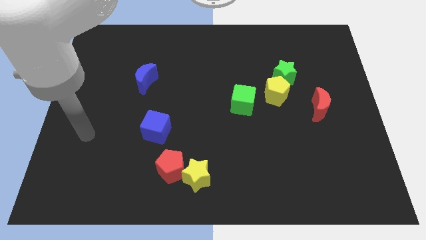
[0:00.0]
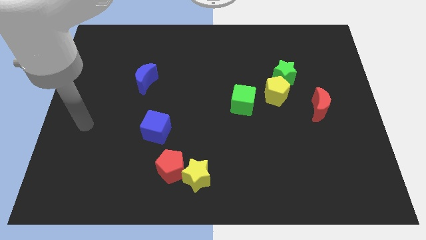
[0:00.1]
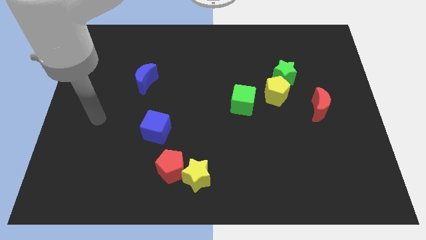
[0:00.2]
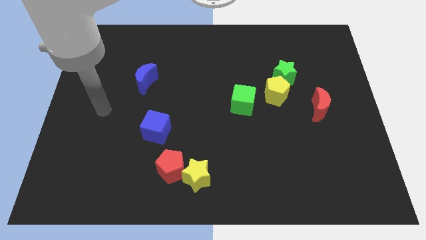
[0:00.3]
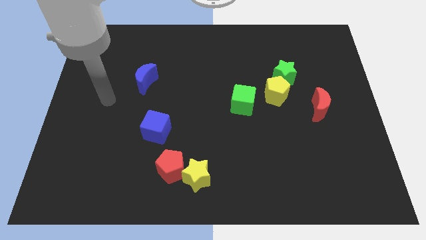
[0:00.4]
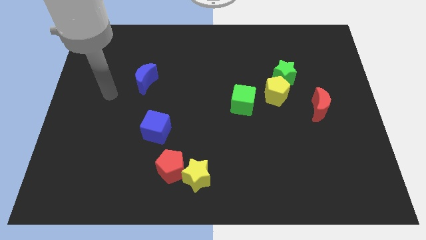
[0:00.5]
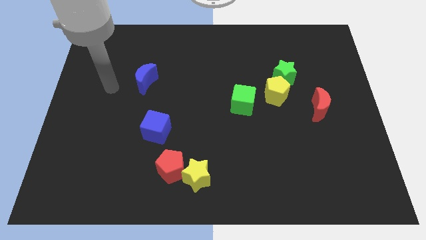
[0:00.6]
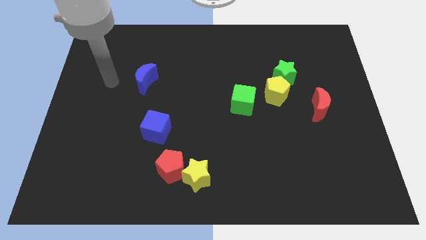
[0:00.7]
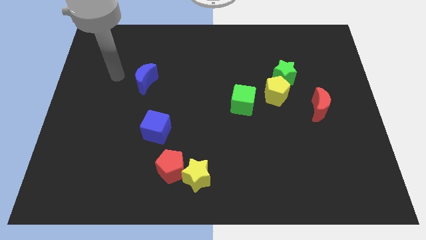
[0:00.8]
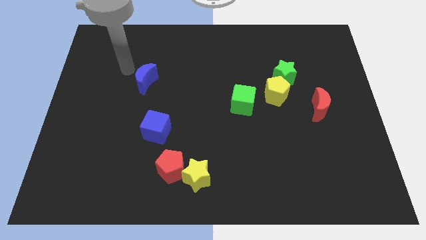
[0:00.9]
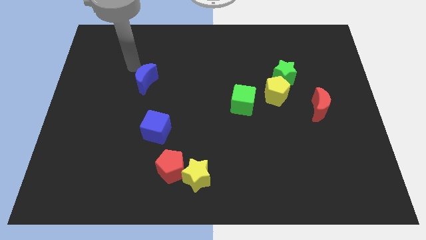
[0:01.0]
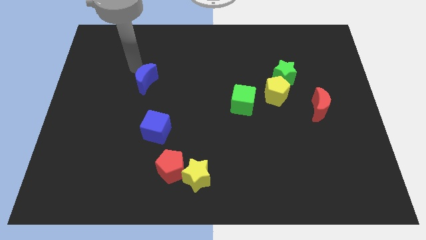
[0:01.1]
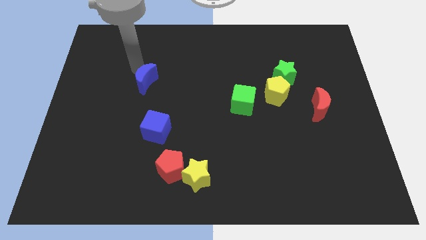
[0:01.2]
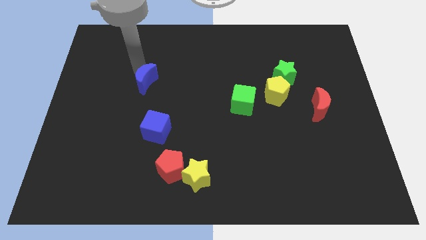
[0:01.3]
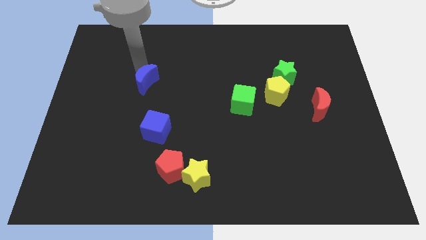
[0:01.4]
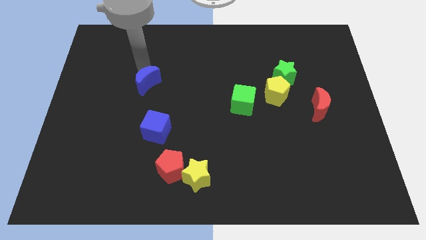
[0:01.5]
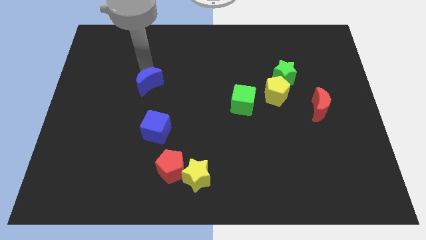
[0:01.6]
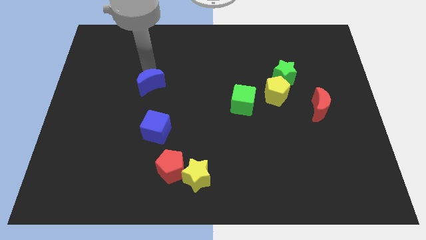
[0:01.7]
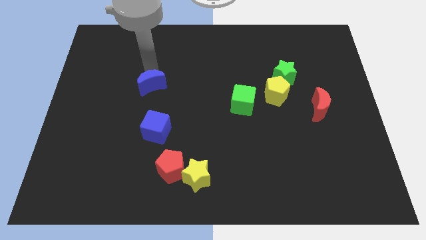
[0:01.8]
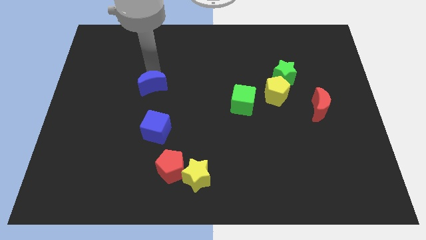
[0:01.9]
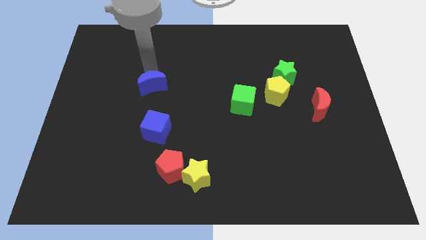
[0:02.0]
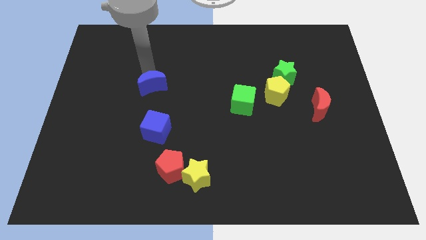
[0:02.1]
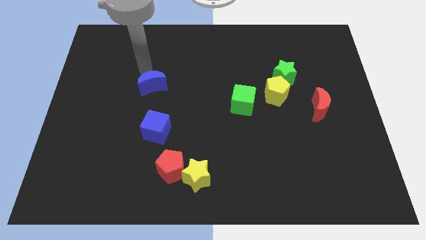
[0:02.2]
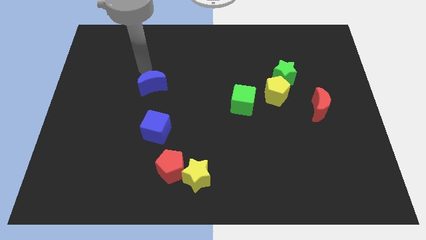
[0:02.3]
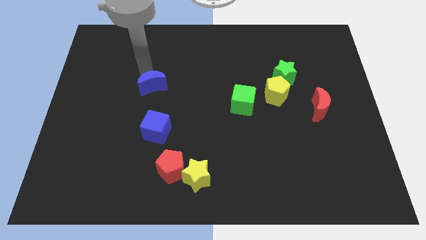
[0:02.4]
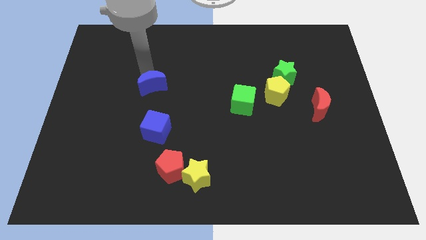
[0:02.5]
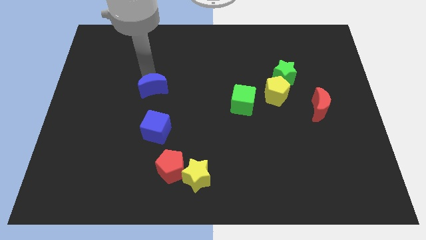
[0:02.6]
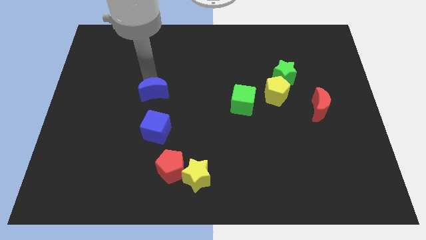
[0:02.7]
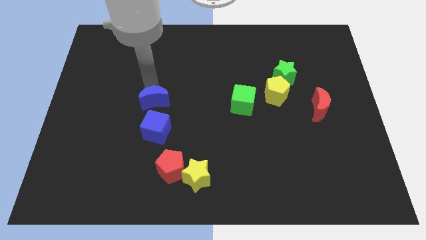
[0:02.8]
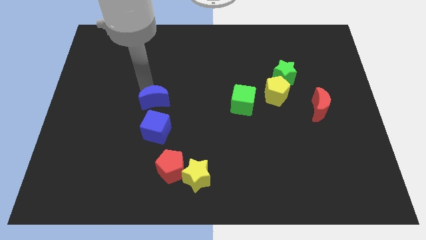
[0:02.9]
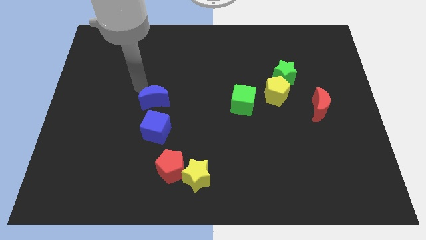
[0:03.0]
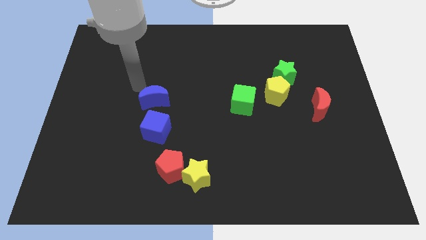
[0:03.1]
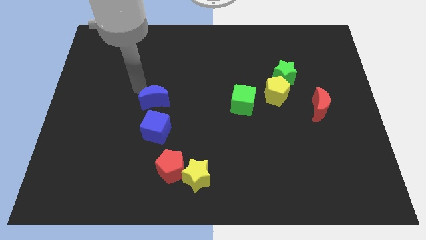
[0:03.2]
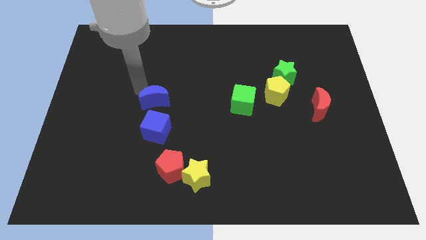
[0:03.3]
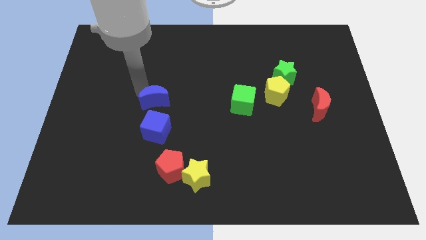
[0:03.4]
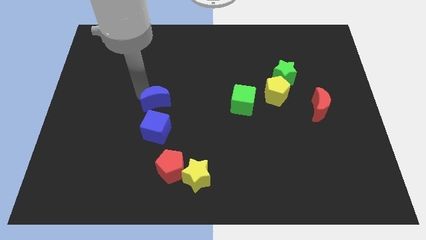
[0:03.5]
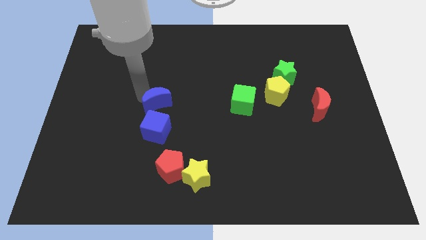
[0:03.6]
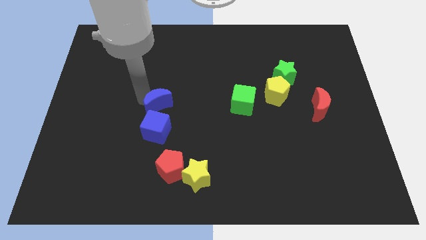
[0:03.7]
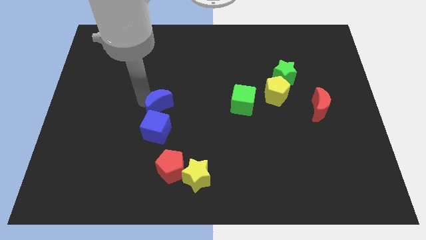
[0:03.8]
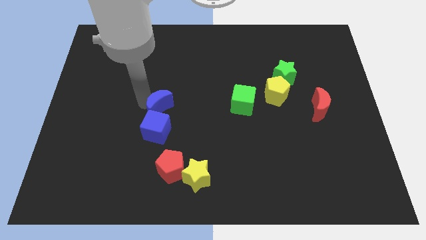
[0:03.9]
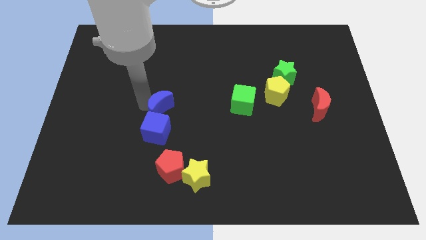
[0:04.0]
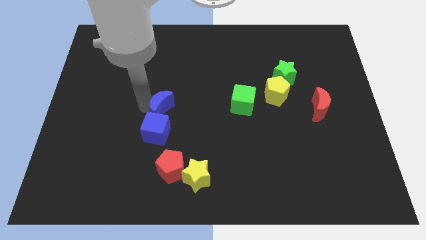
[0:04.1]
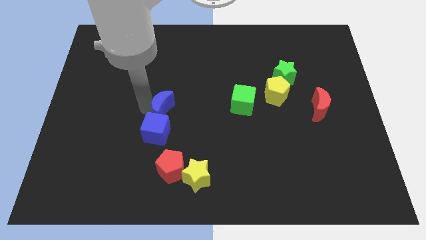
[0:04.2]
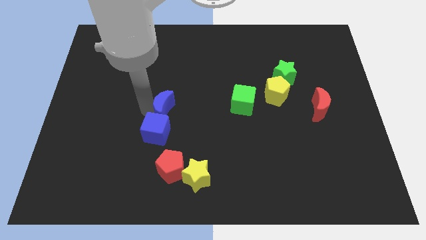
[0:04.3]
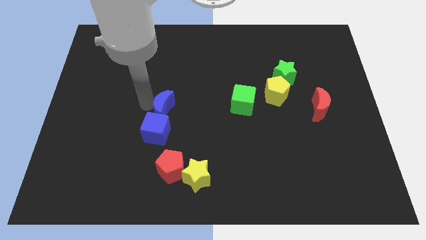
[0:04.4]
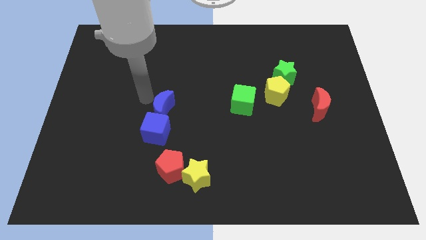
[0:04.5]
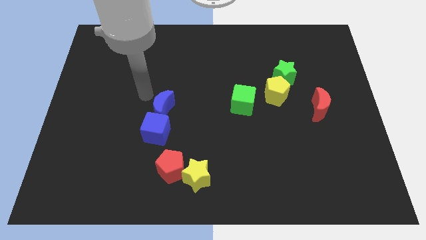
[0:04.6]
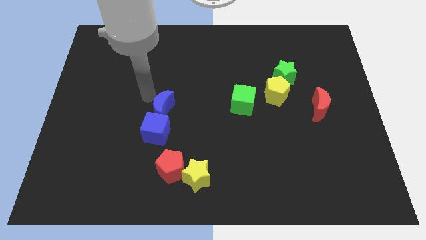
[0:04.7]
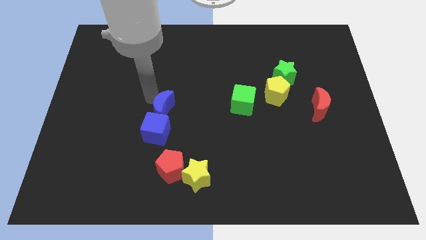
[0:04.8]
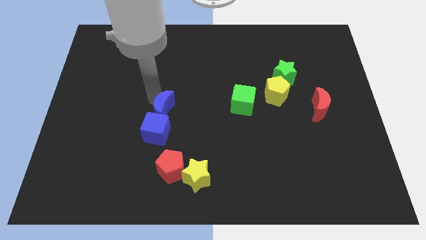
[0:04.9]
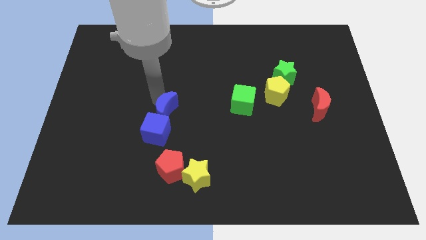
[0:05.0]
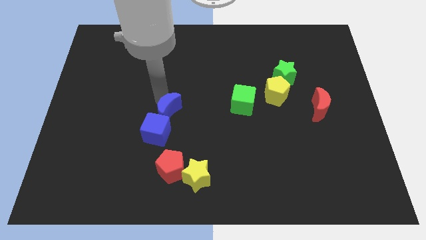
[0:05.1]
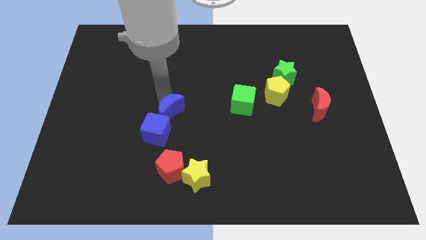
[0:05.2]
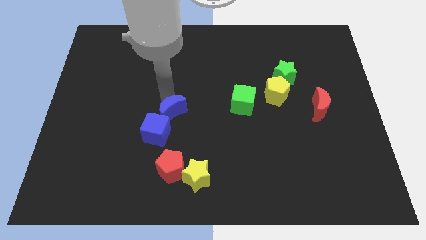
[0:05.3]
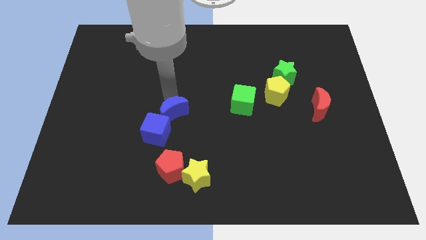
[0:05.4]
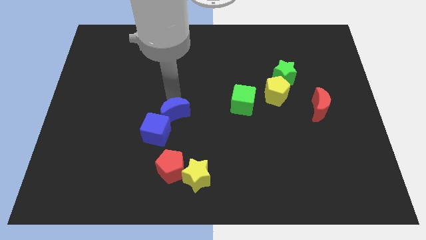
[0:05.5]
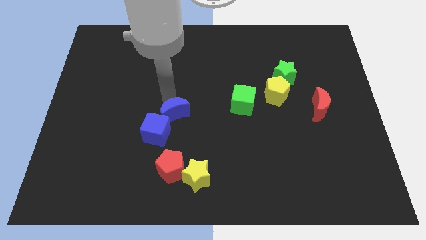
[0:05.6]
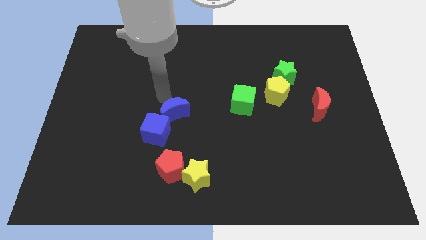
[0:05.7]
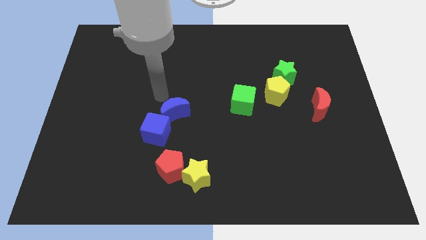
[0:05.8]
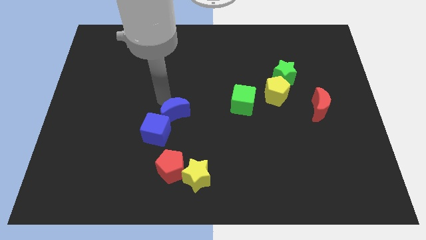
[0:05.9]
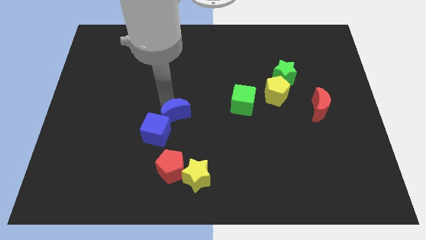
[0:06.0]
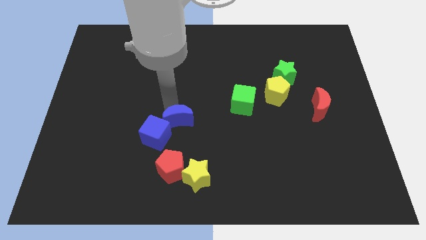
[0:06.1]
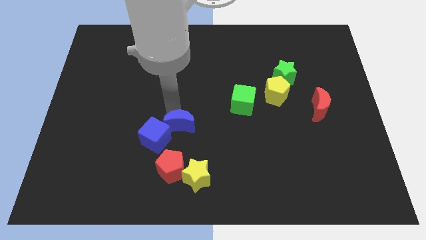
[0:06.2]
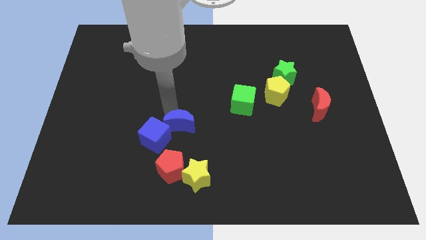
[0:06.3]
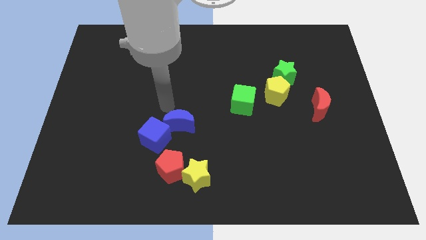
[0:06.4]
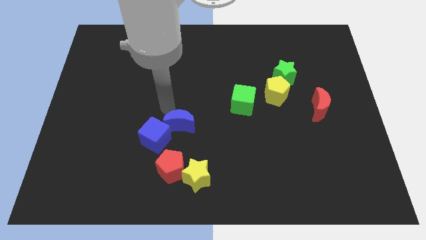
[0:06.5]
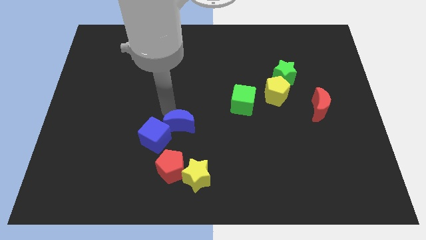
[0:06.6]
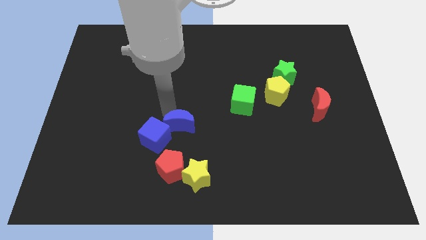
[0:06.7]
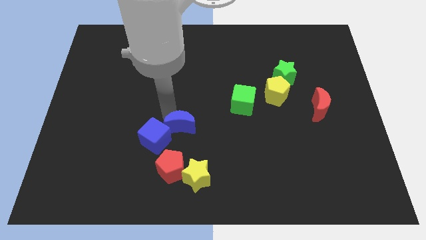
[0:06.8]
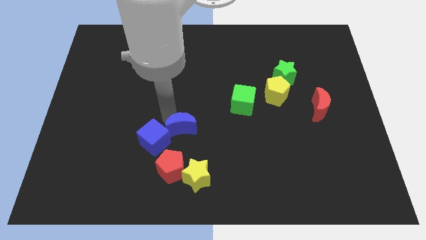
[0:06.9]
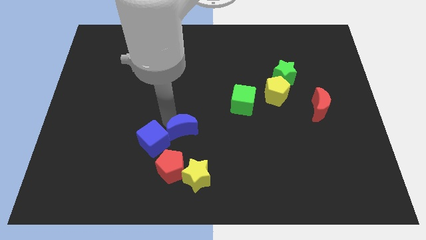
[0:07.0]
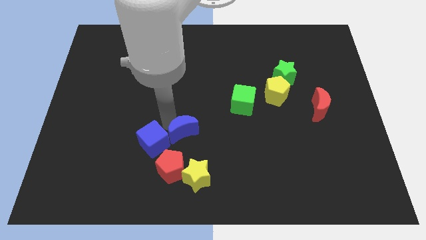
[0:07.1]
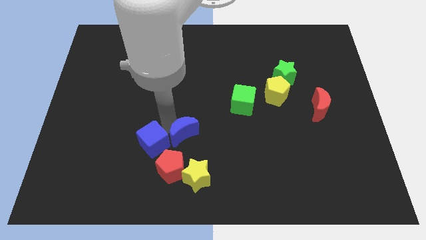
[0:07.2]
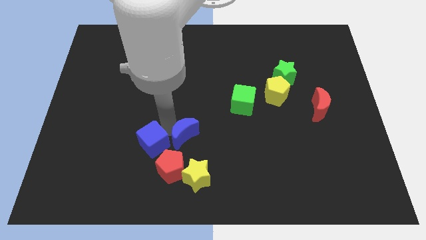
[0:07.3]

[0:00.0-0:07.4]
put the blue moon diagonally up and to the right of the red pentagon
